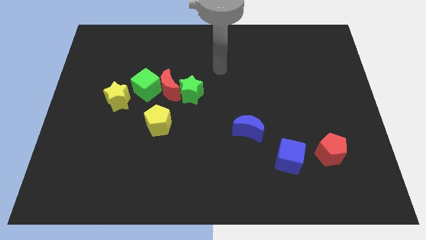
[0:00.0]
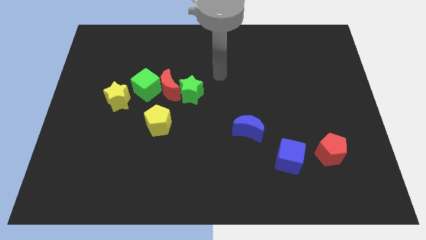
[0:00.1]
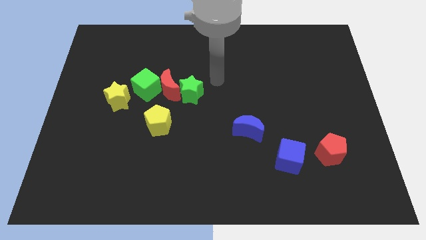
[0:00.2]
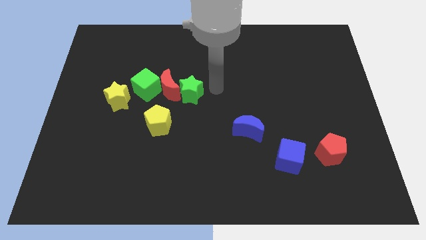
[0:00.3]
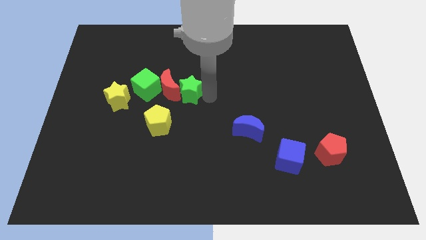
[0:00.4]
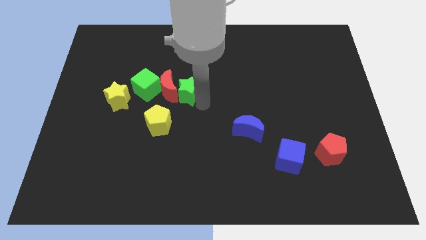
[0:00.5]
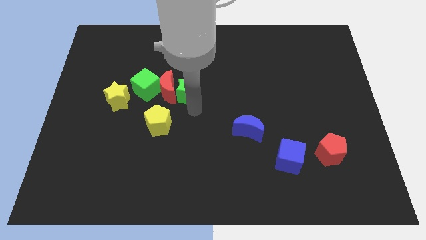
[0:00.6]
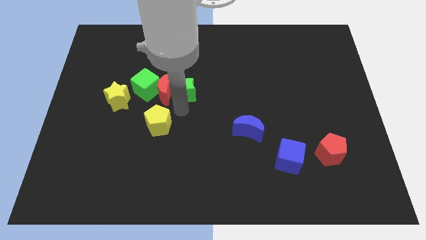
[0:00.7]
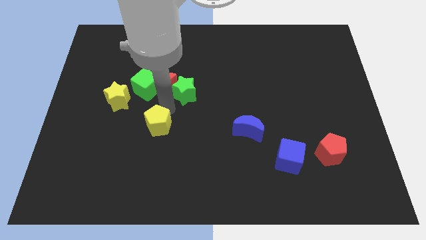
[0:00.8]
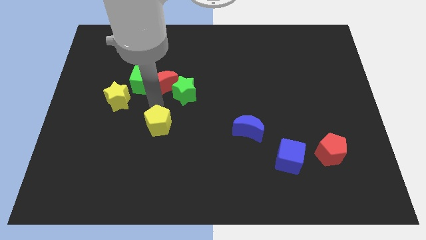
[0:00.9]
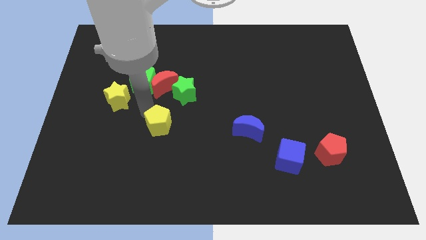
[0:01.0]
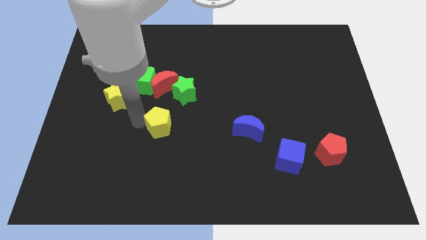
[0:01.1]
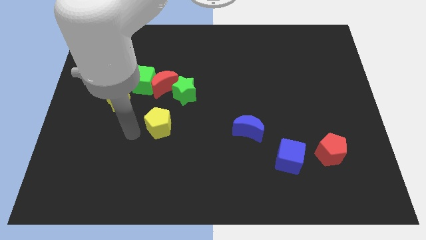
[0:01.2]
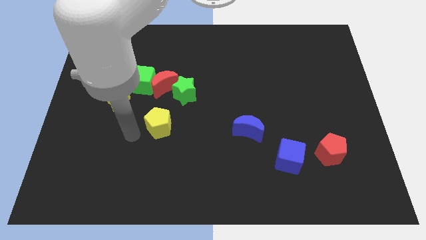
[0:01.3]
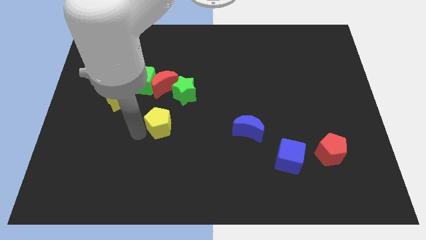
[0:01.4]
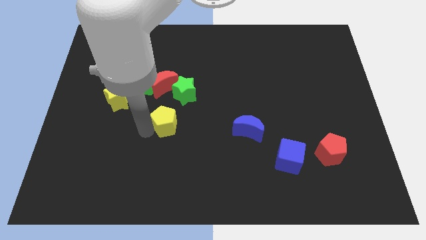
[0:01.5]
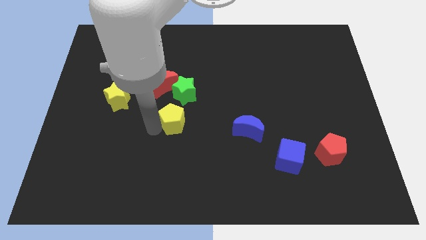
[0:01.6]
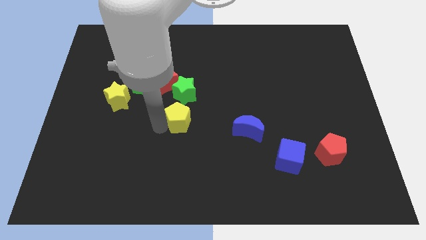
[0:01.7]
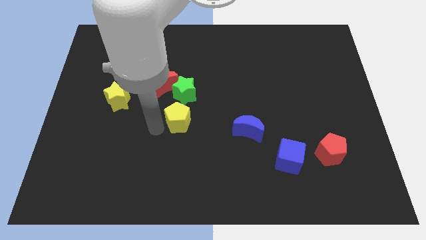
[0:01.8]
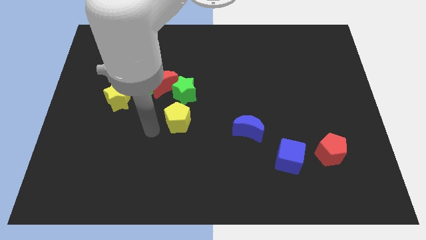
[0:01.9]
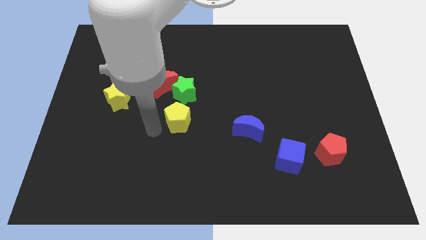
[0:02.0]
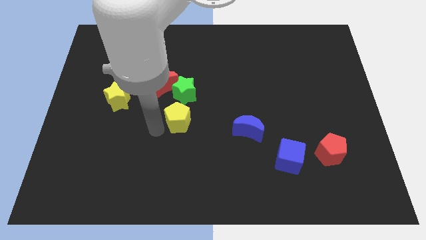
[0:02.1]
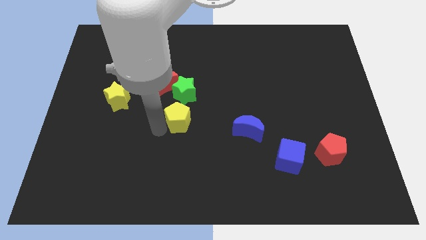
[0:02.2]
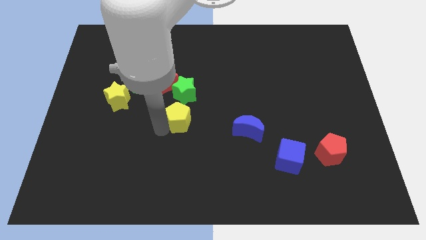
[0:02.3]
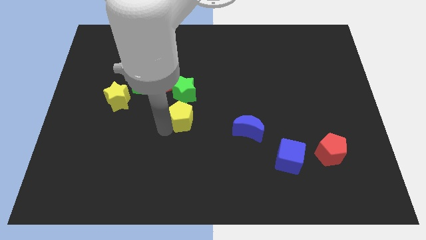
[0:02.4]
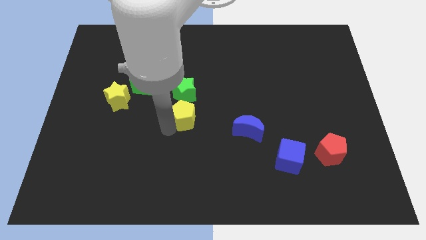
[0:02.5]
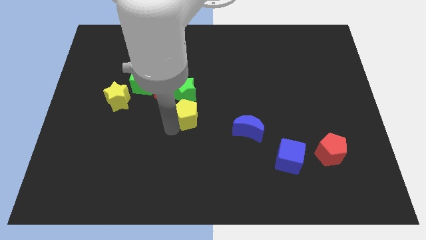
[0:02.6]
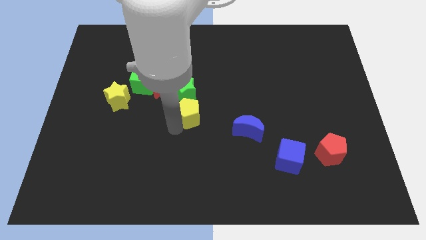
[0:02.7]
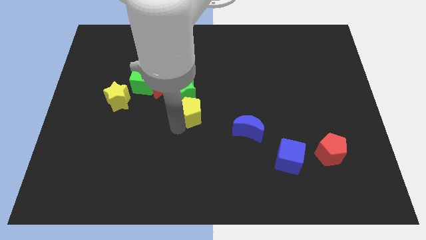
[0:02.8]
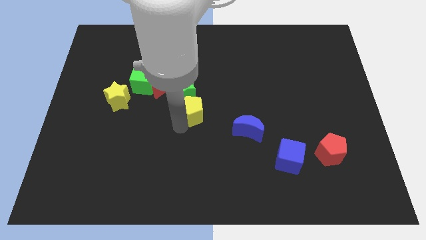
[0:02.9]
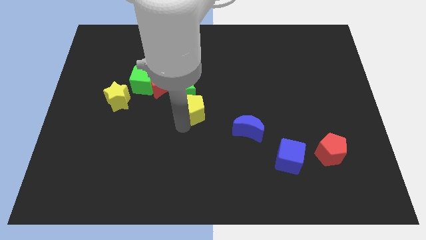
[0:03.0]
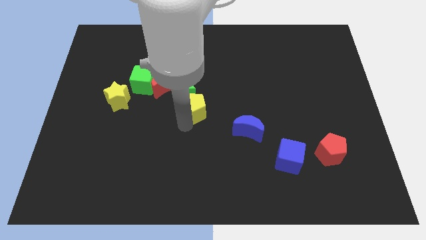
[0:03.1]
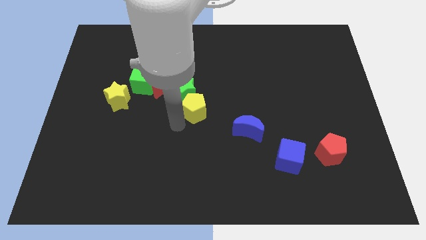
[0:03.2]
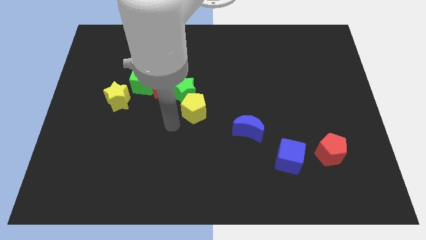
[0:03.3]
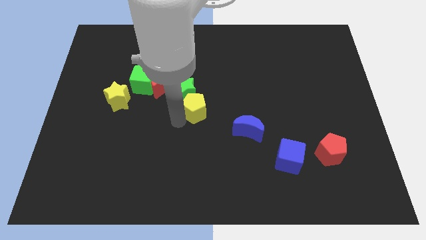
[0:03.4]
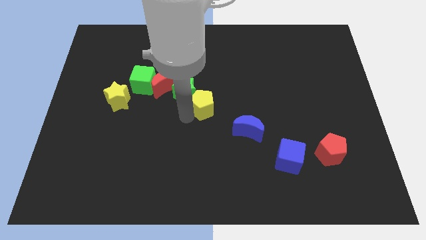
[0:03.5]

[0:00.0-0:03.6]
put the yellow pentagon to the right of the green star

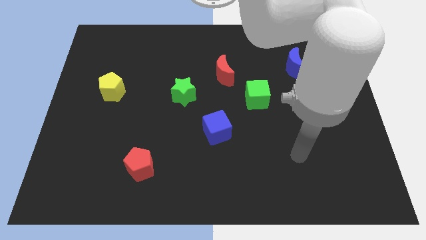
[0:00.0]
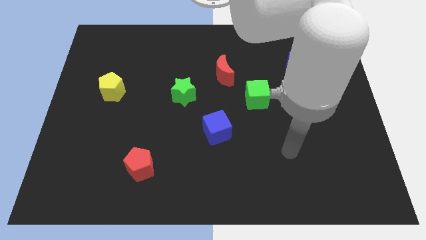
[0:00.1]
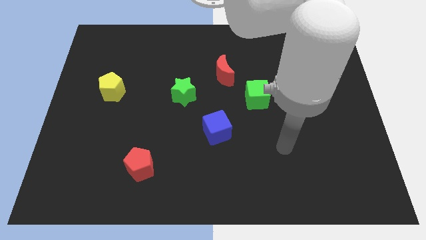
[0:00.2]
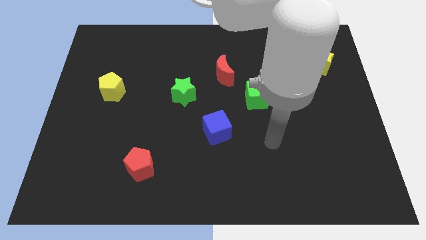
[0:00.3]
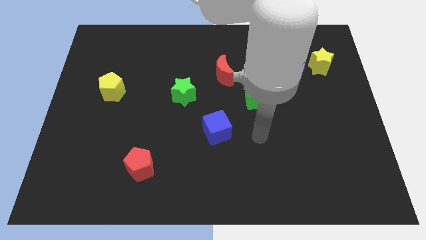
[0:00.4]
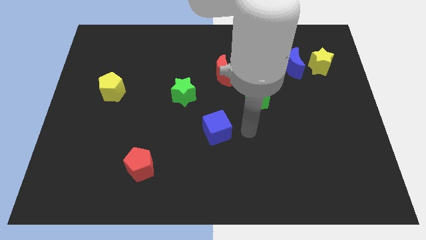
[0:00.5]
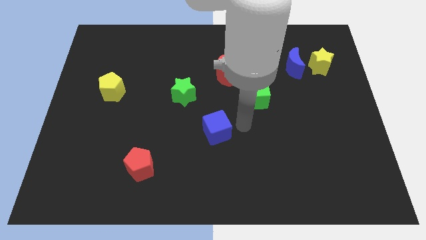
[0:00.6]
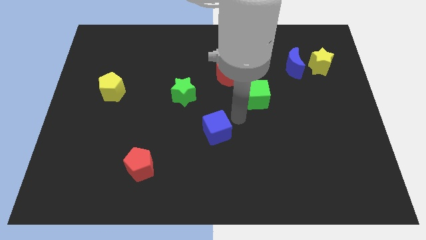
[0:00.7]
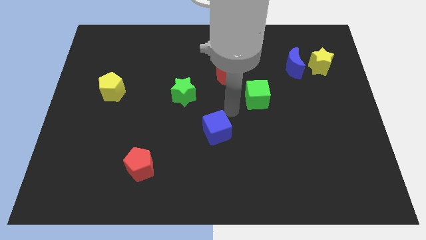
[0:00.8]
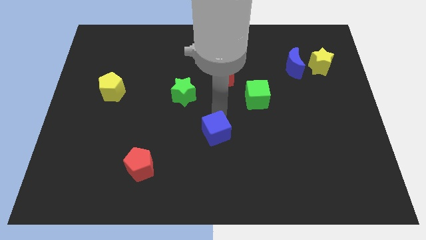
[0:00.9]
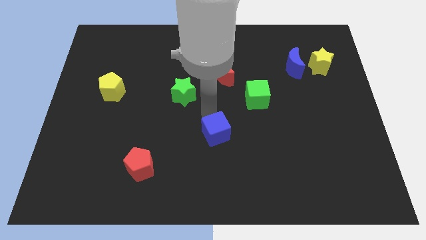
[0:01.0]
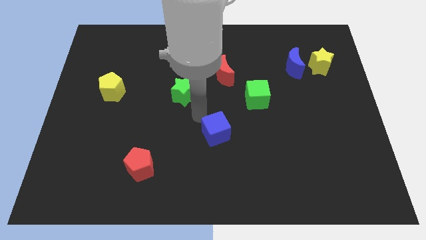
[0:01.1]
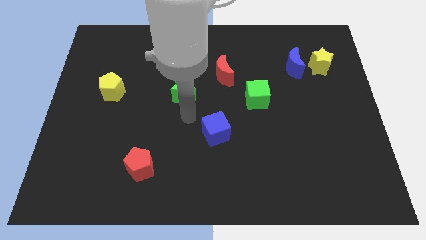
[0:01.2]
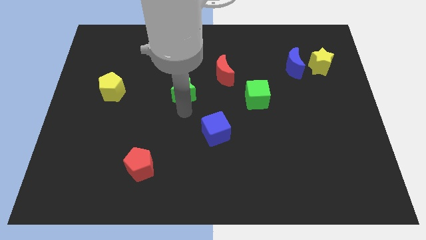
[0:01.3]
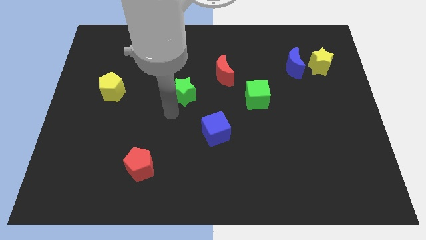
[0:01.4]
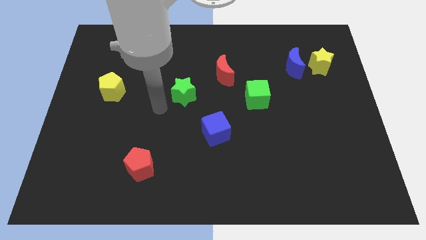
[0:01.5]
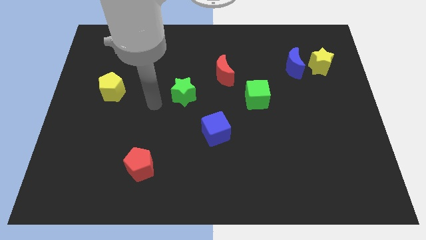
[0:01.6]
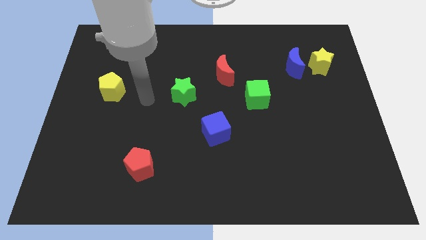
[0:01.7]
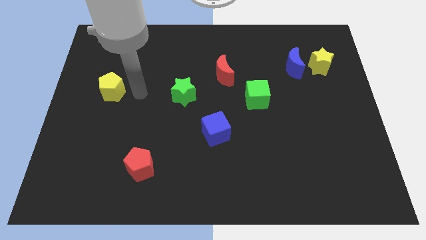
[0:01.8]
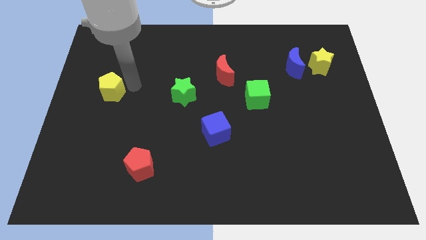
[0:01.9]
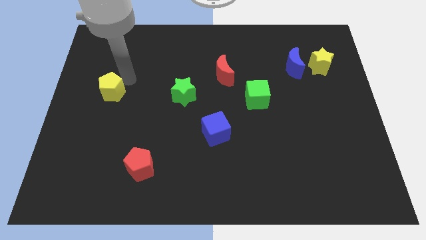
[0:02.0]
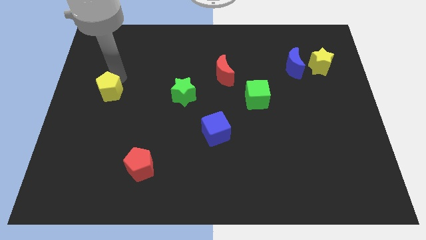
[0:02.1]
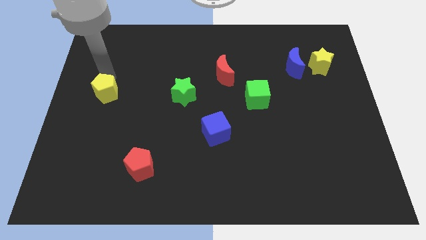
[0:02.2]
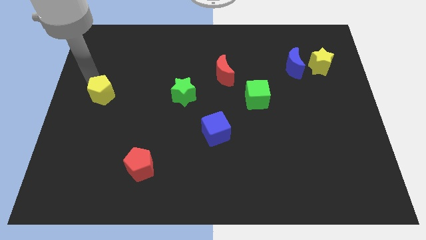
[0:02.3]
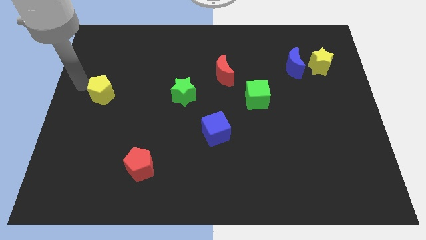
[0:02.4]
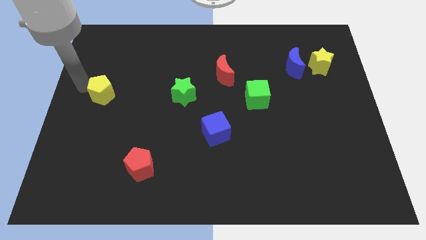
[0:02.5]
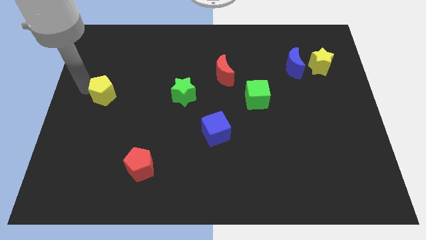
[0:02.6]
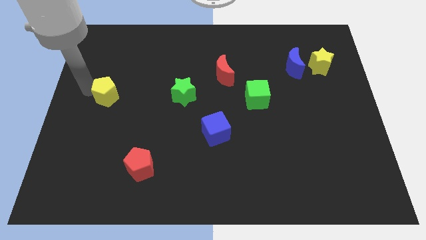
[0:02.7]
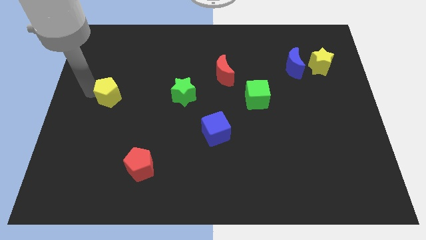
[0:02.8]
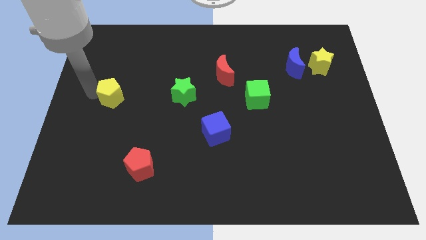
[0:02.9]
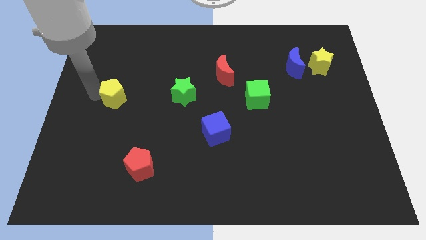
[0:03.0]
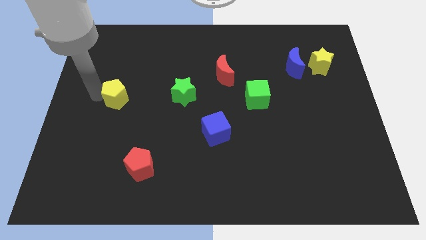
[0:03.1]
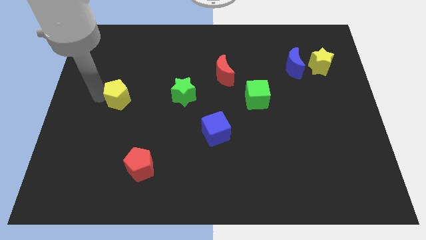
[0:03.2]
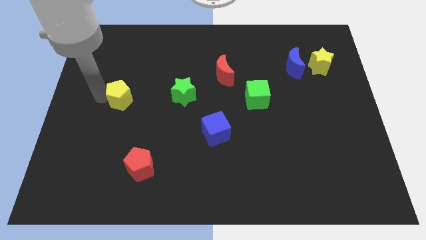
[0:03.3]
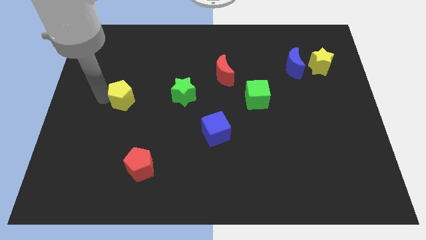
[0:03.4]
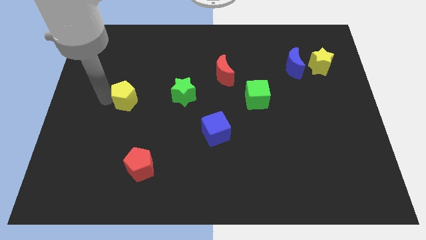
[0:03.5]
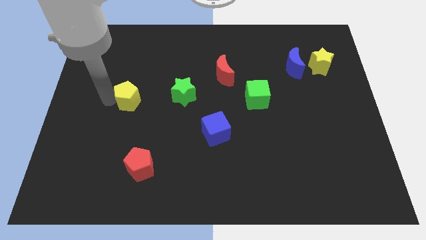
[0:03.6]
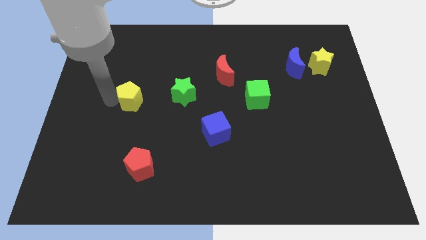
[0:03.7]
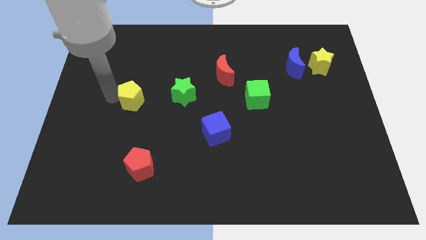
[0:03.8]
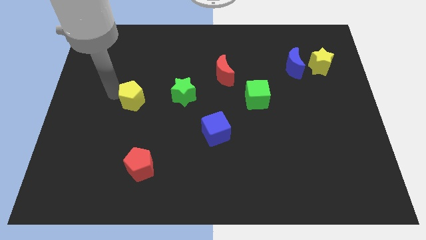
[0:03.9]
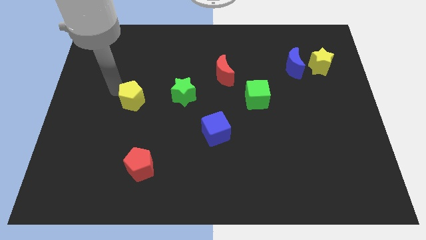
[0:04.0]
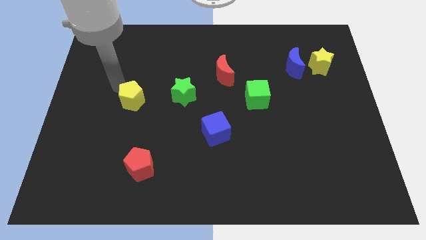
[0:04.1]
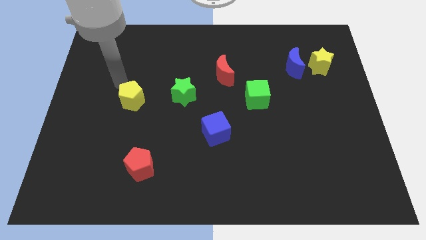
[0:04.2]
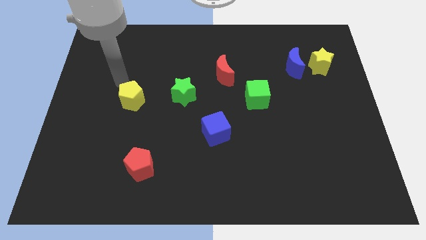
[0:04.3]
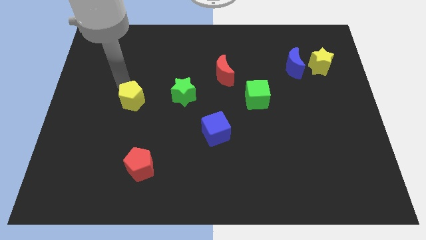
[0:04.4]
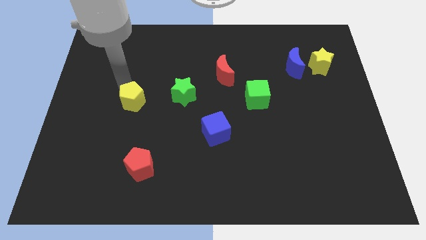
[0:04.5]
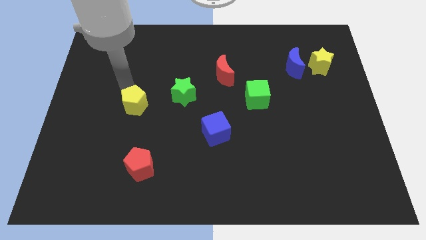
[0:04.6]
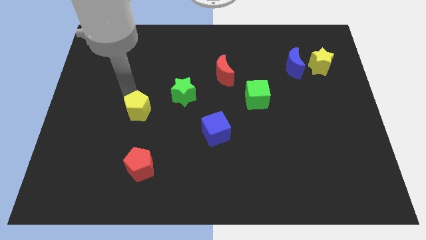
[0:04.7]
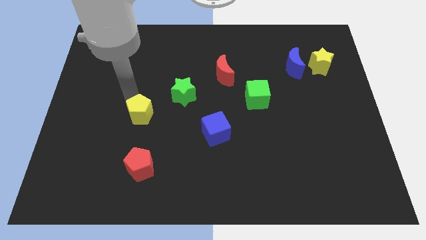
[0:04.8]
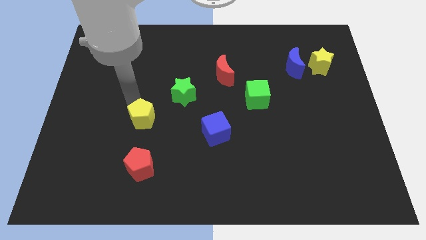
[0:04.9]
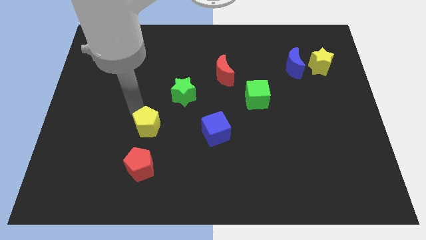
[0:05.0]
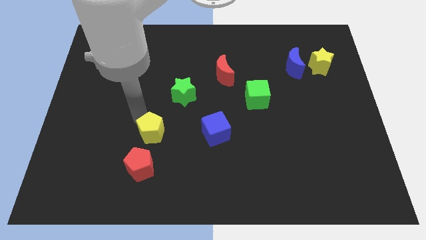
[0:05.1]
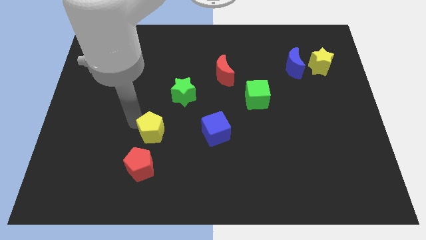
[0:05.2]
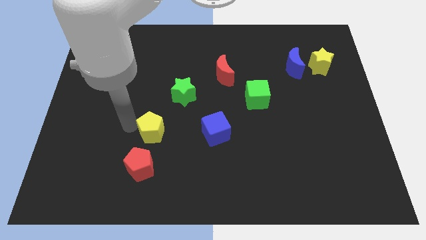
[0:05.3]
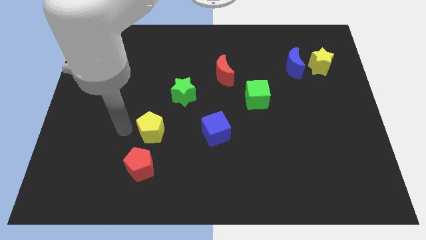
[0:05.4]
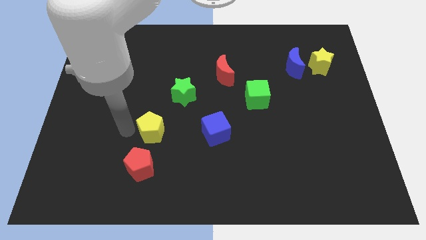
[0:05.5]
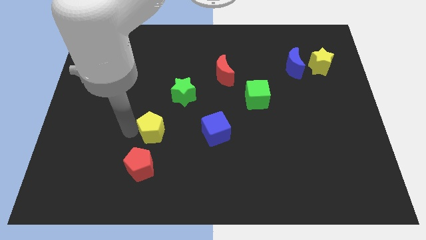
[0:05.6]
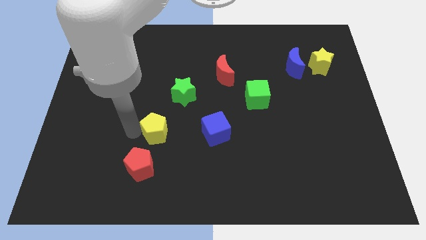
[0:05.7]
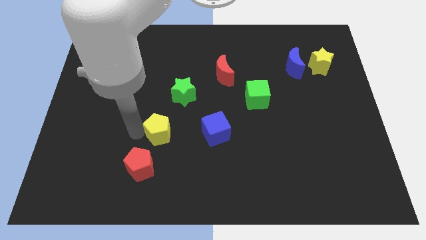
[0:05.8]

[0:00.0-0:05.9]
move the yellow pentagon below the green star
